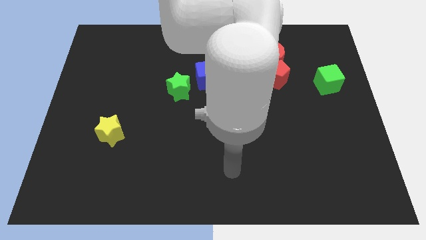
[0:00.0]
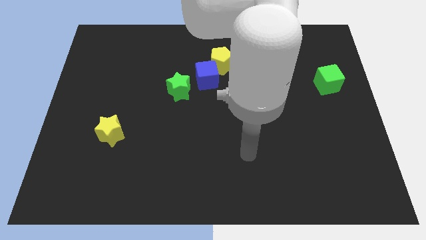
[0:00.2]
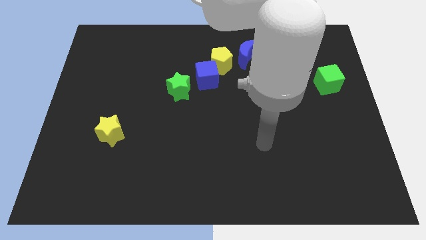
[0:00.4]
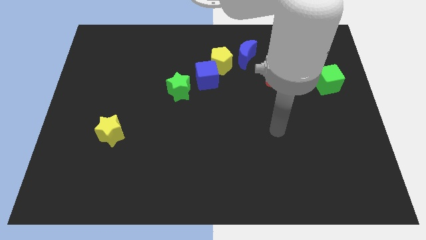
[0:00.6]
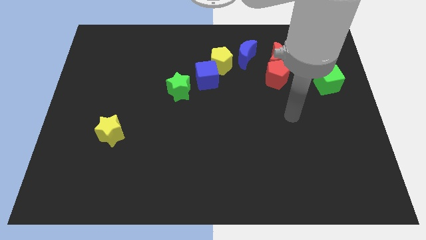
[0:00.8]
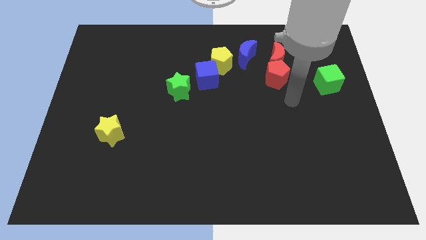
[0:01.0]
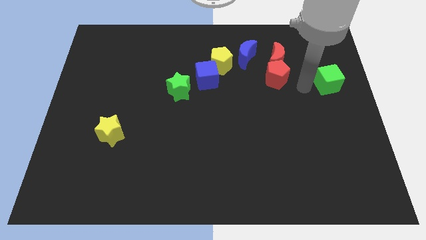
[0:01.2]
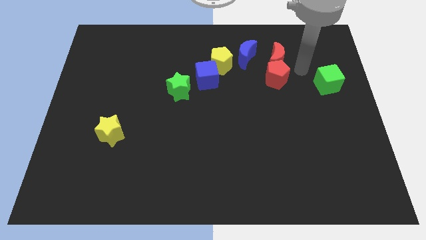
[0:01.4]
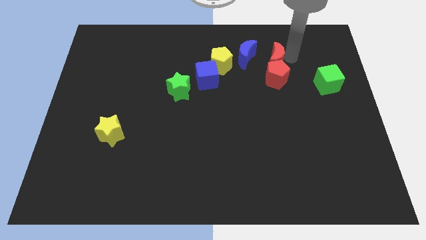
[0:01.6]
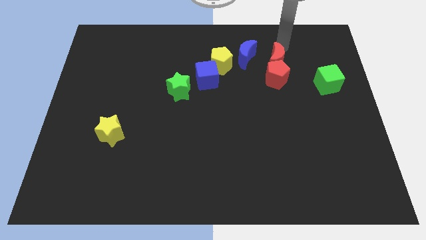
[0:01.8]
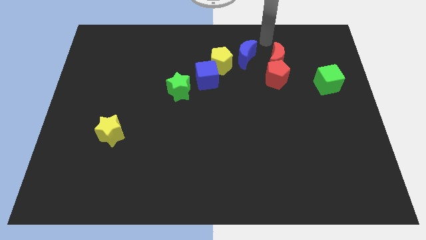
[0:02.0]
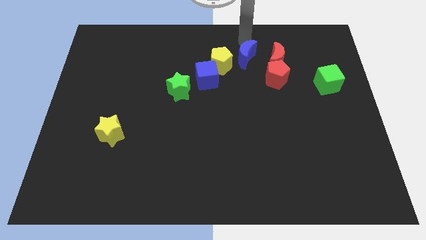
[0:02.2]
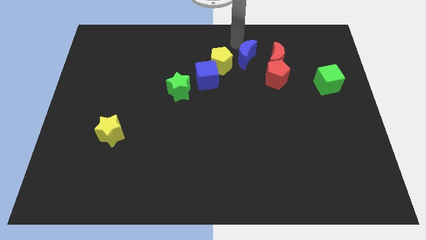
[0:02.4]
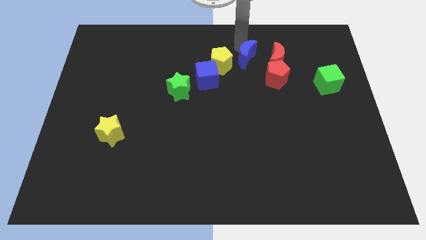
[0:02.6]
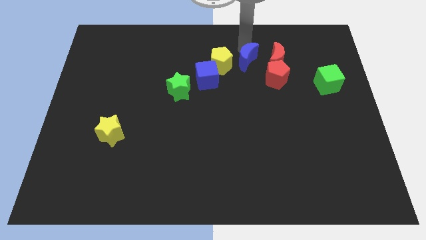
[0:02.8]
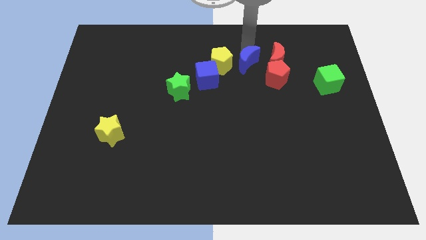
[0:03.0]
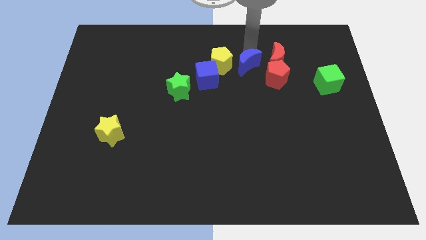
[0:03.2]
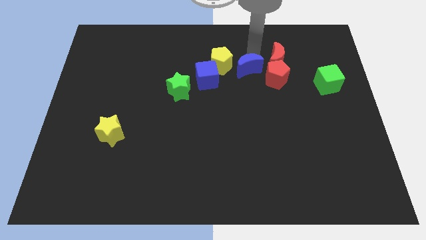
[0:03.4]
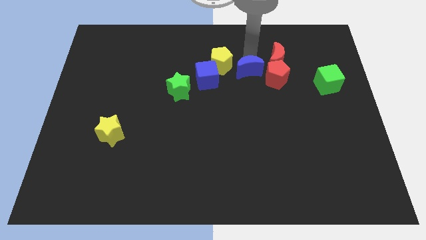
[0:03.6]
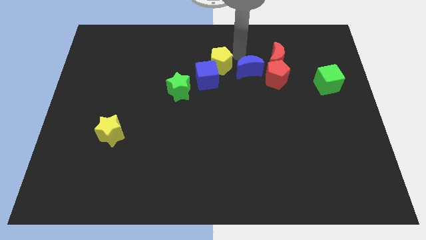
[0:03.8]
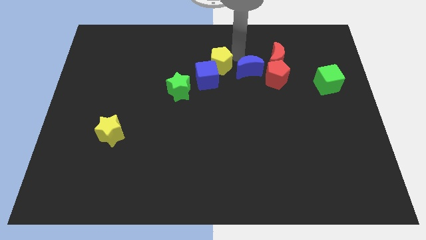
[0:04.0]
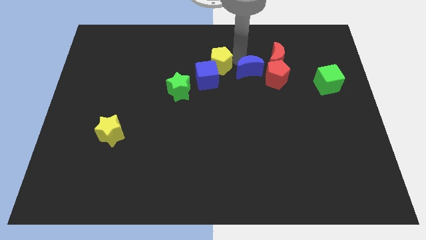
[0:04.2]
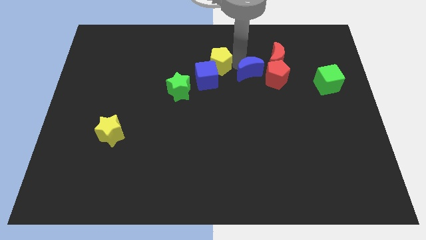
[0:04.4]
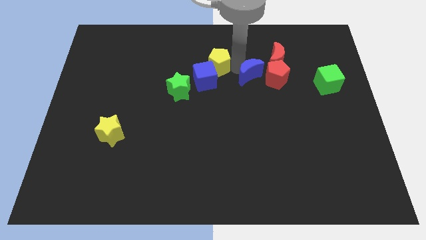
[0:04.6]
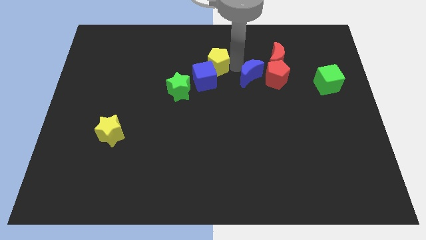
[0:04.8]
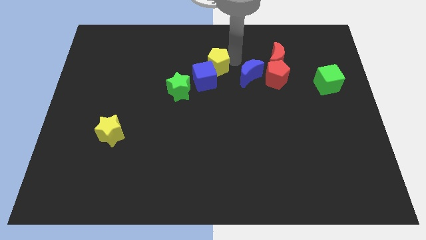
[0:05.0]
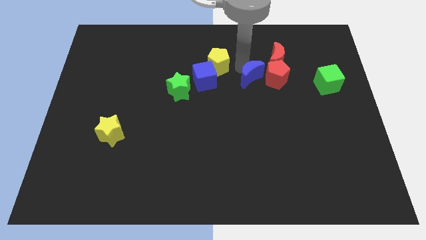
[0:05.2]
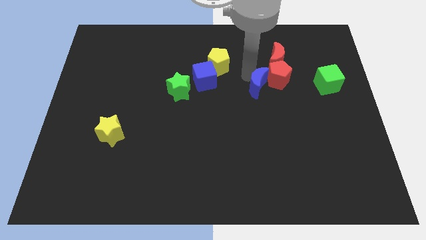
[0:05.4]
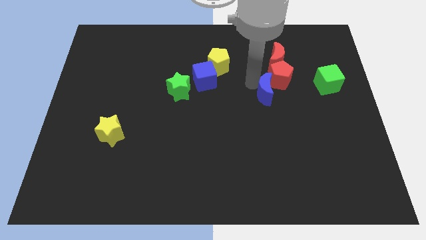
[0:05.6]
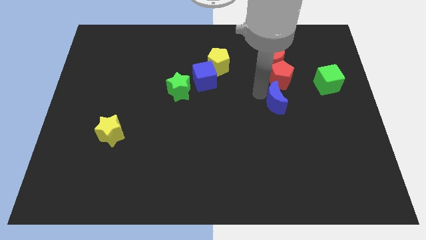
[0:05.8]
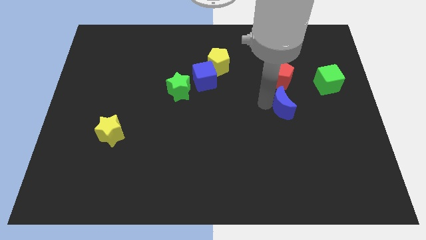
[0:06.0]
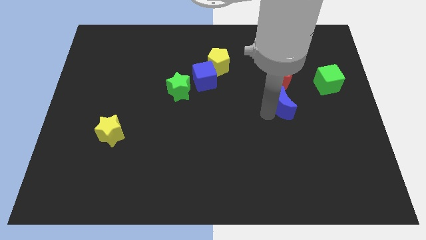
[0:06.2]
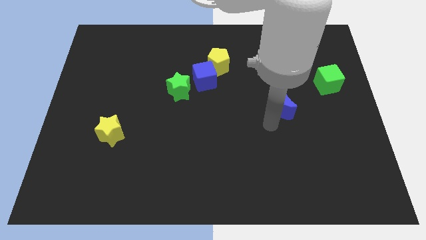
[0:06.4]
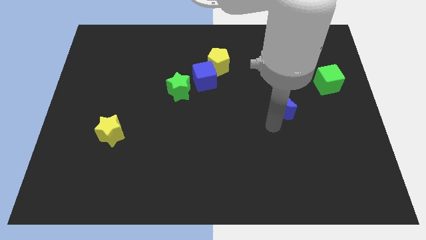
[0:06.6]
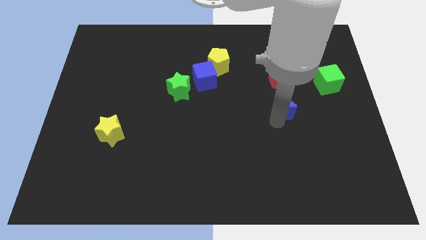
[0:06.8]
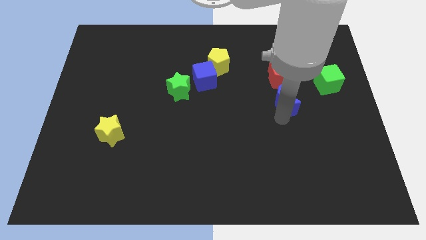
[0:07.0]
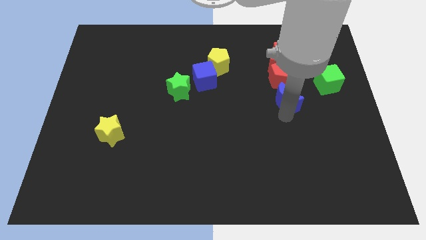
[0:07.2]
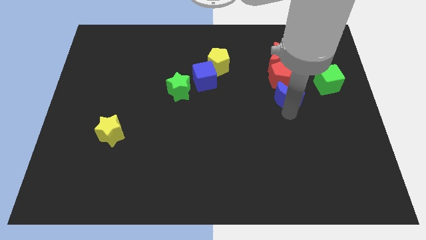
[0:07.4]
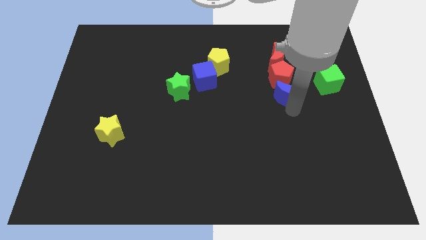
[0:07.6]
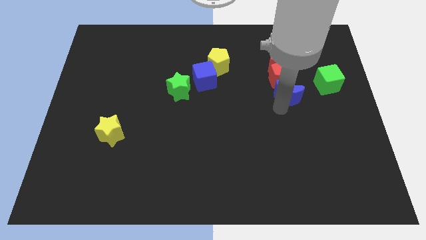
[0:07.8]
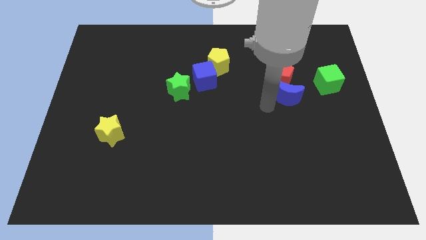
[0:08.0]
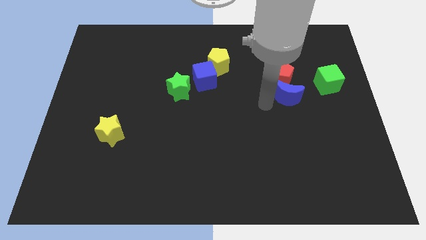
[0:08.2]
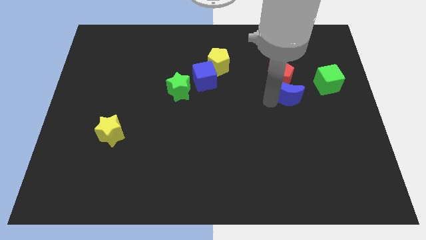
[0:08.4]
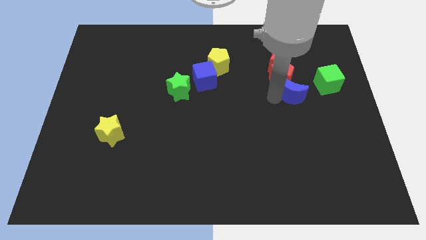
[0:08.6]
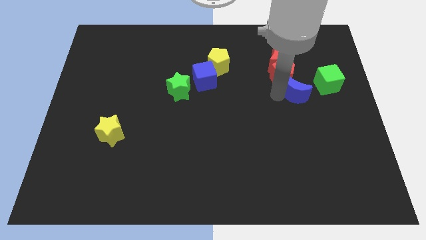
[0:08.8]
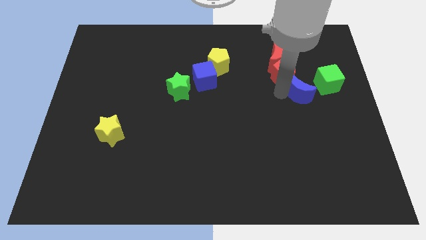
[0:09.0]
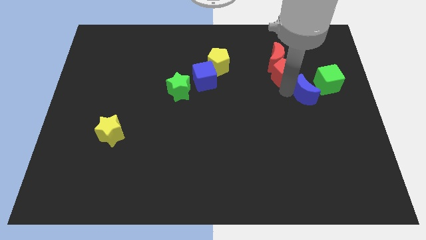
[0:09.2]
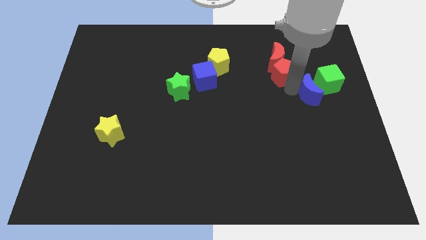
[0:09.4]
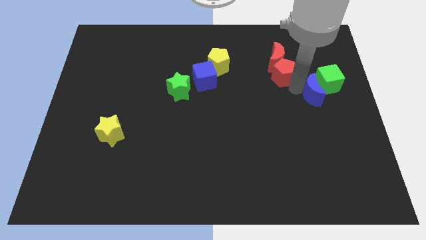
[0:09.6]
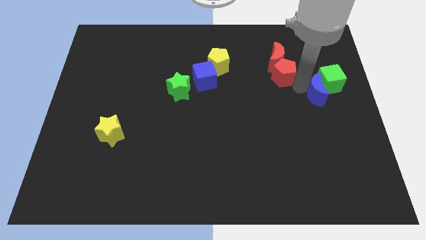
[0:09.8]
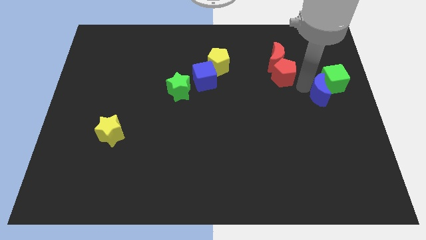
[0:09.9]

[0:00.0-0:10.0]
slide the blue moon to the right side of the board

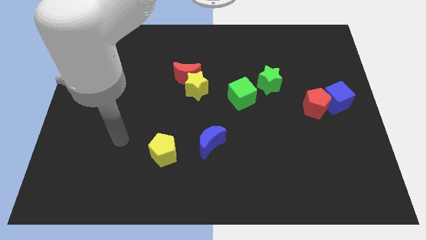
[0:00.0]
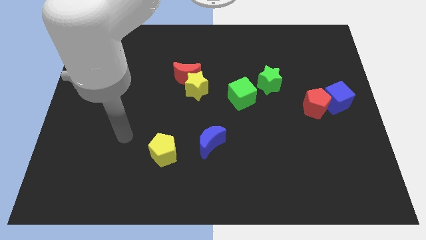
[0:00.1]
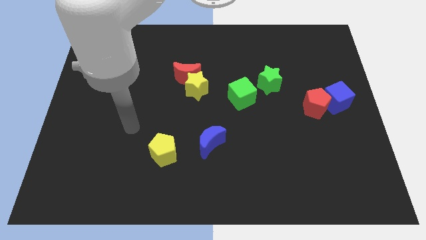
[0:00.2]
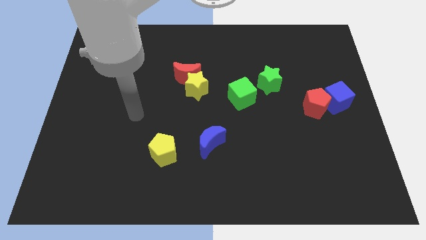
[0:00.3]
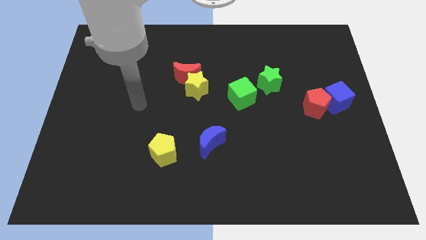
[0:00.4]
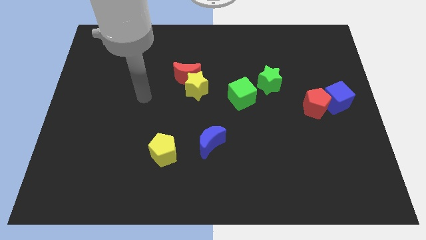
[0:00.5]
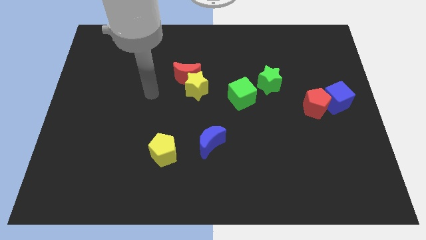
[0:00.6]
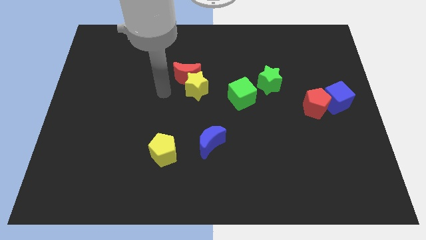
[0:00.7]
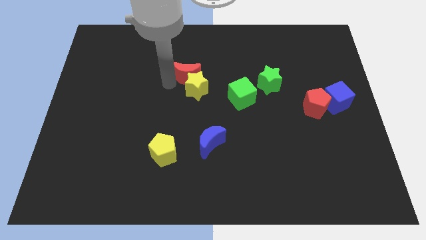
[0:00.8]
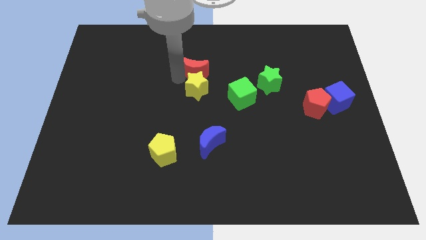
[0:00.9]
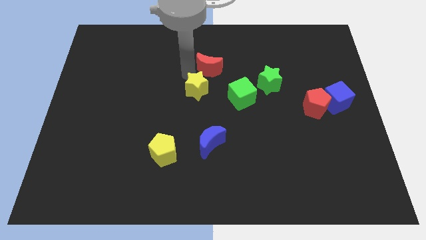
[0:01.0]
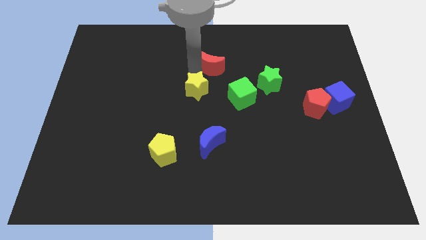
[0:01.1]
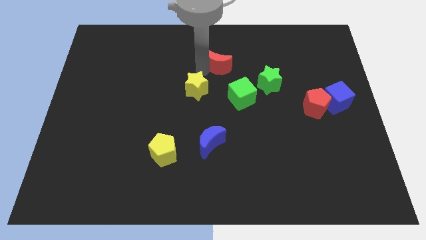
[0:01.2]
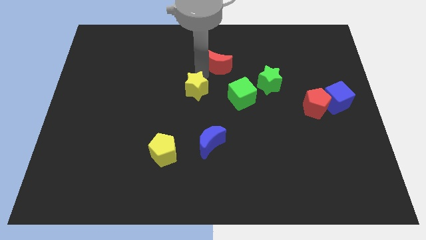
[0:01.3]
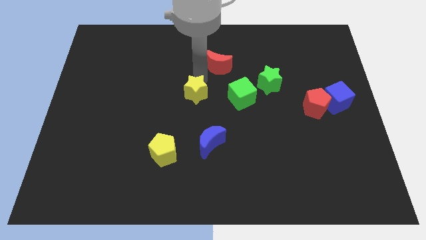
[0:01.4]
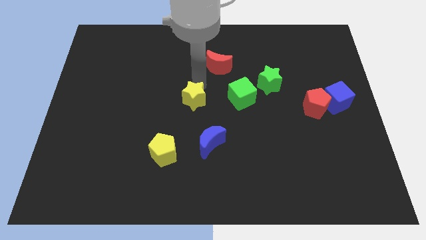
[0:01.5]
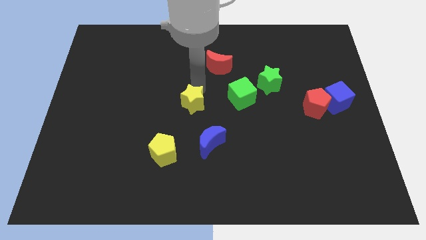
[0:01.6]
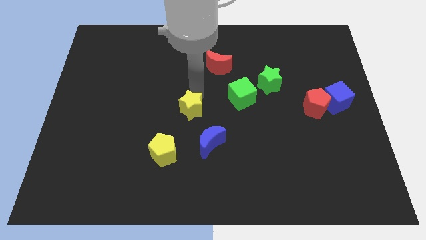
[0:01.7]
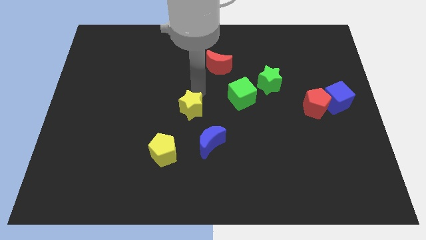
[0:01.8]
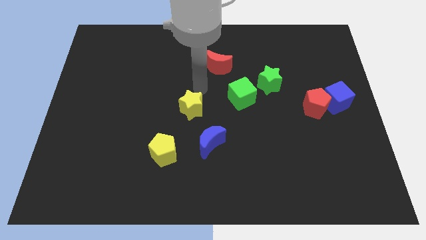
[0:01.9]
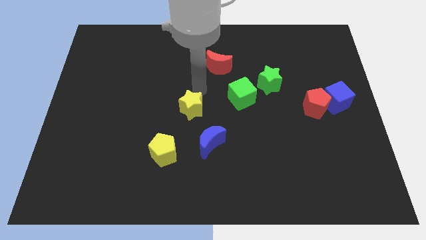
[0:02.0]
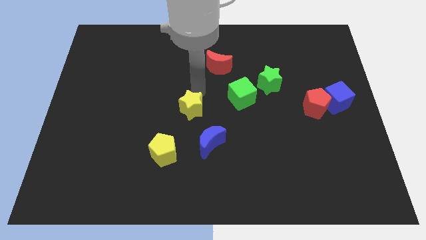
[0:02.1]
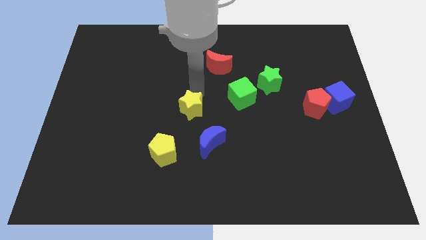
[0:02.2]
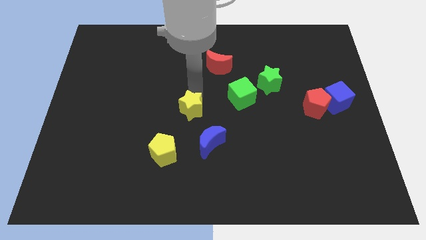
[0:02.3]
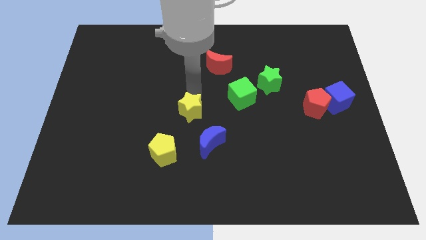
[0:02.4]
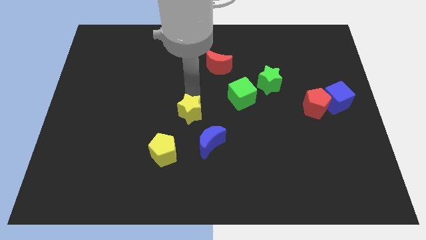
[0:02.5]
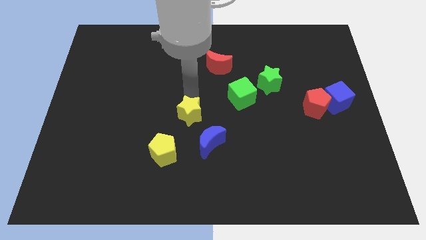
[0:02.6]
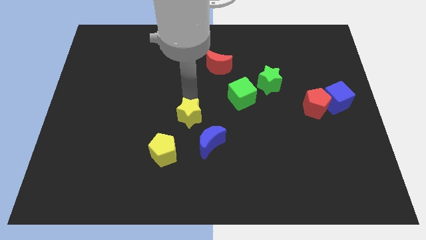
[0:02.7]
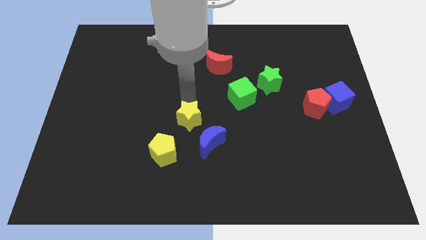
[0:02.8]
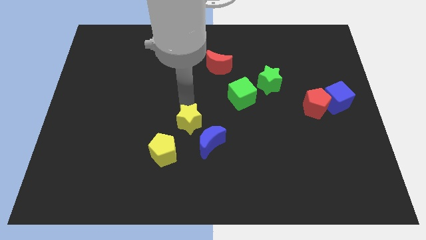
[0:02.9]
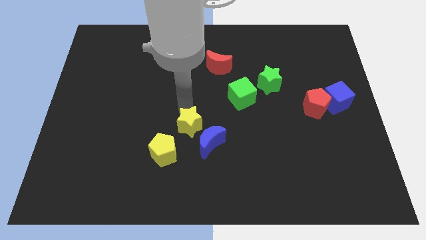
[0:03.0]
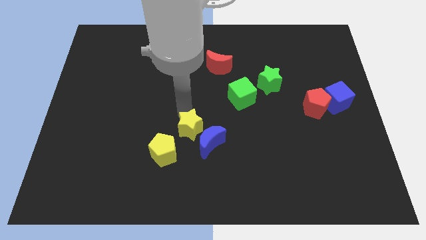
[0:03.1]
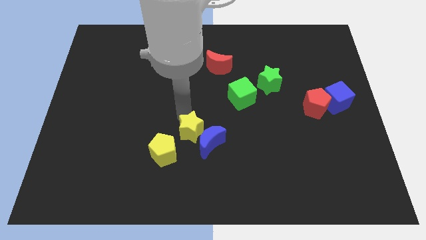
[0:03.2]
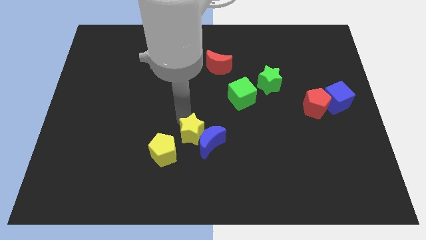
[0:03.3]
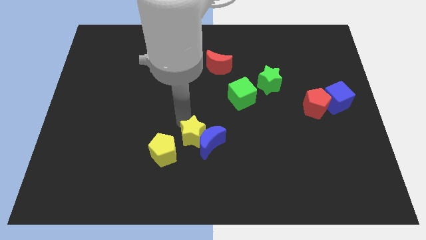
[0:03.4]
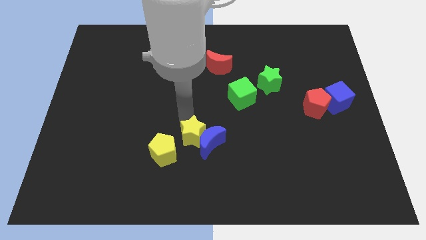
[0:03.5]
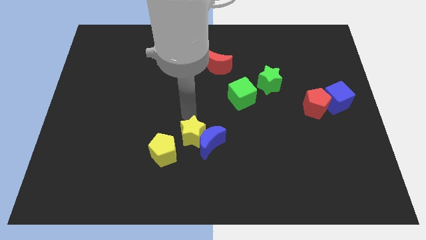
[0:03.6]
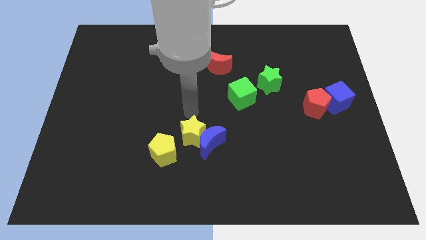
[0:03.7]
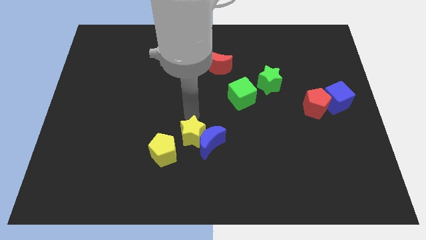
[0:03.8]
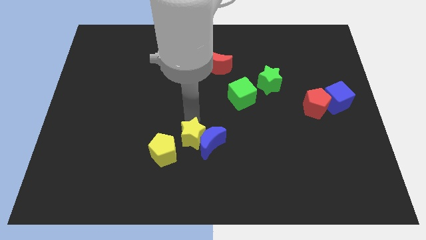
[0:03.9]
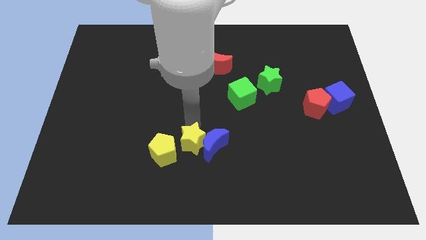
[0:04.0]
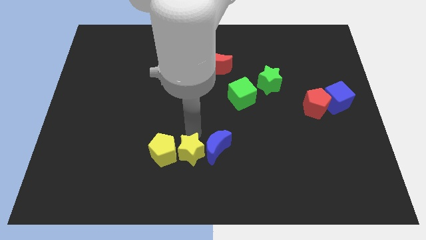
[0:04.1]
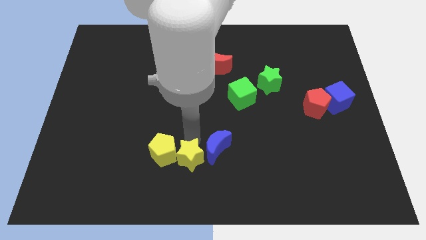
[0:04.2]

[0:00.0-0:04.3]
move the yellow star to the bottom
